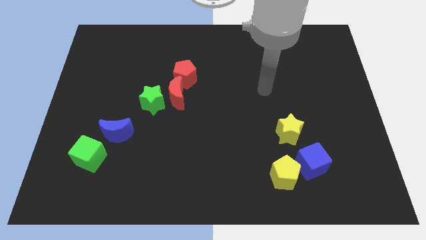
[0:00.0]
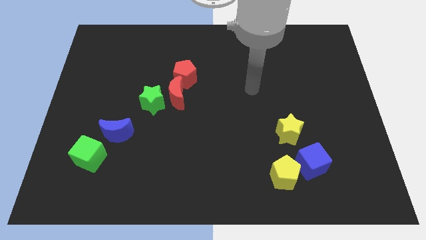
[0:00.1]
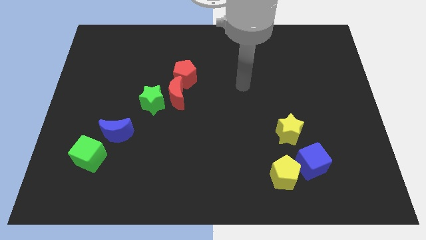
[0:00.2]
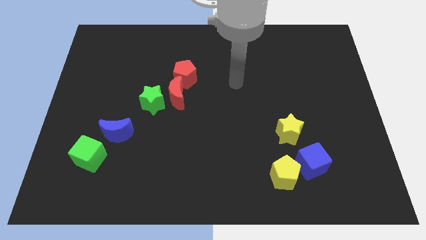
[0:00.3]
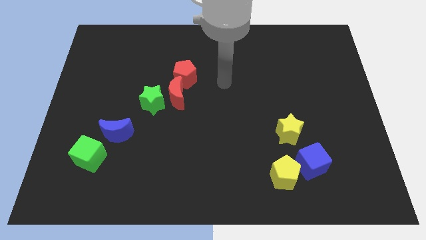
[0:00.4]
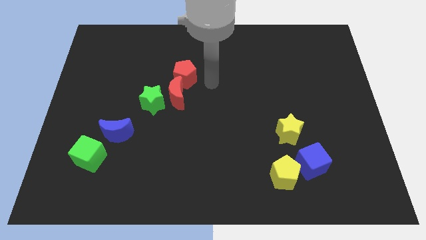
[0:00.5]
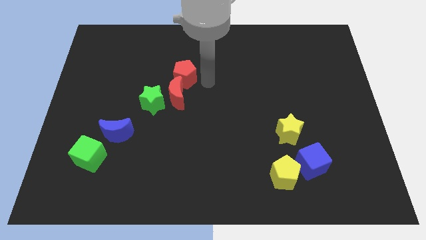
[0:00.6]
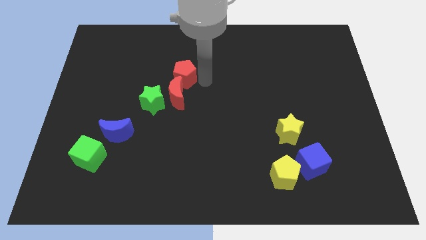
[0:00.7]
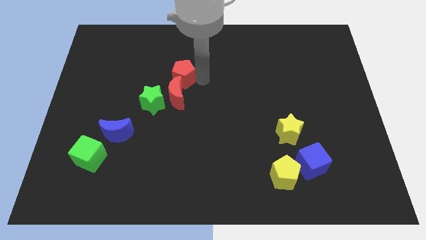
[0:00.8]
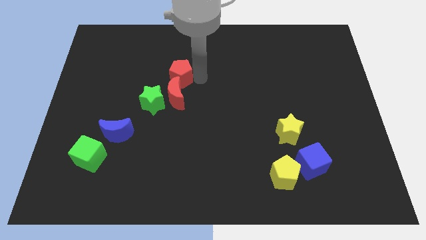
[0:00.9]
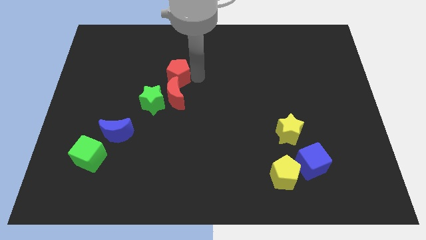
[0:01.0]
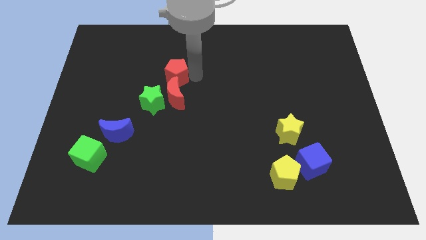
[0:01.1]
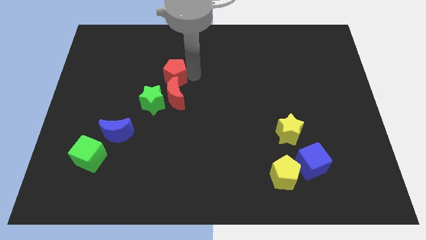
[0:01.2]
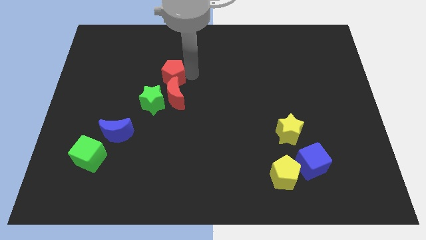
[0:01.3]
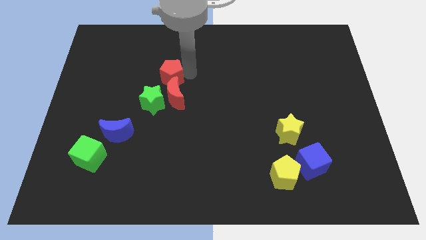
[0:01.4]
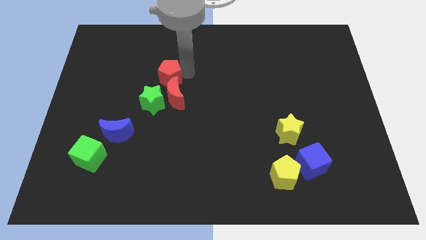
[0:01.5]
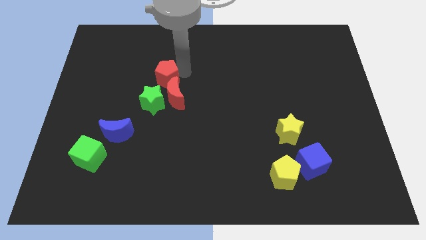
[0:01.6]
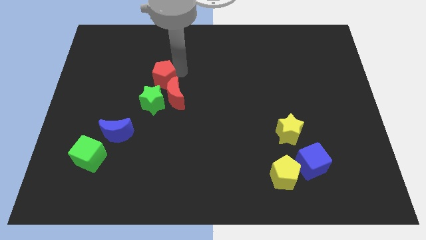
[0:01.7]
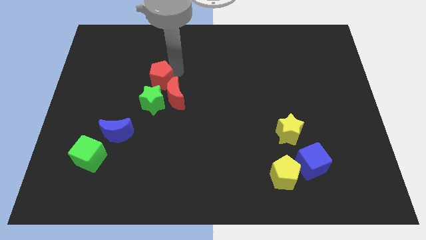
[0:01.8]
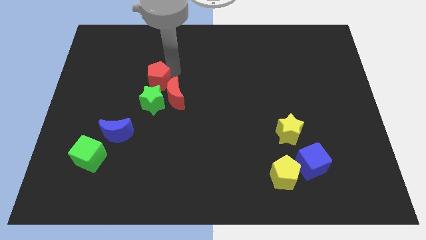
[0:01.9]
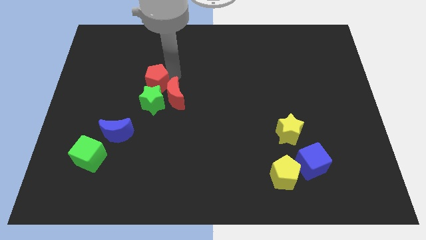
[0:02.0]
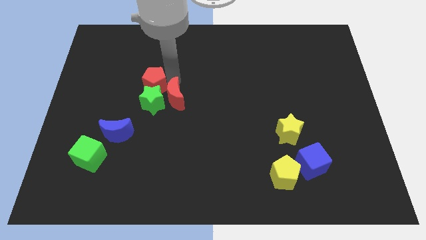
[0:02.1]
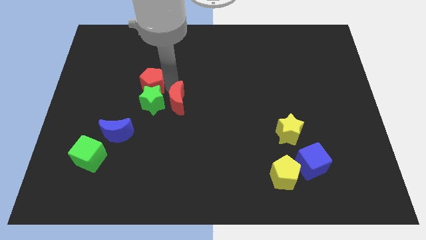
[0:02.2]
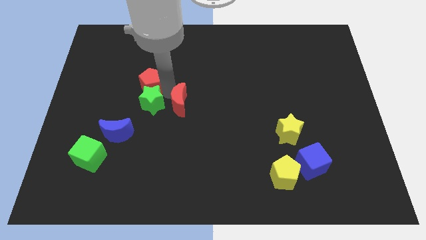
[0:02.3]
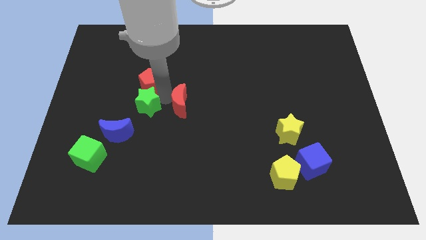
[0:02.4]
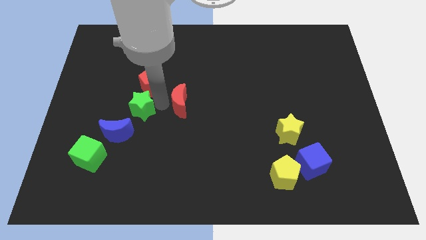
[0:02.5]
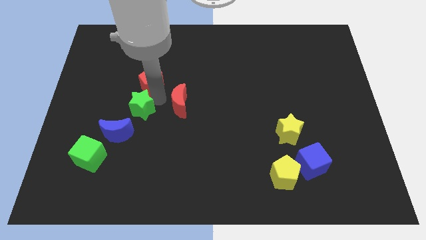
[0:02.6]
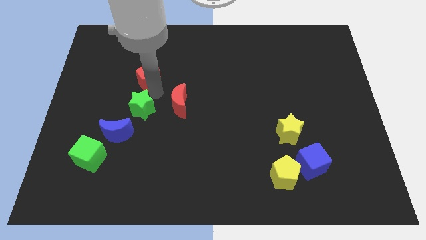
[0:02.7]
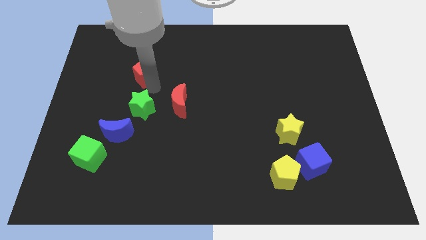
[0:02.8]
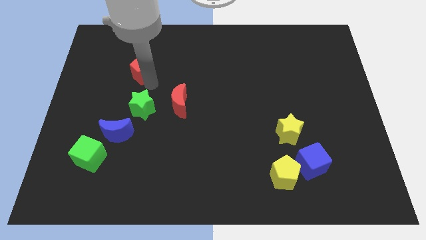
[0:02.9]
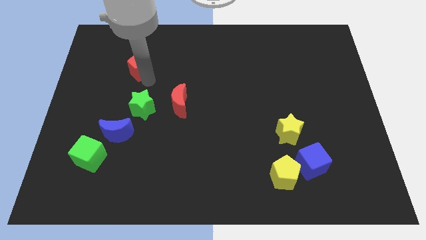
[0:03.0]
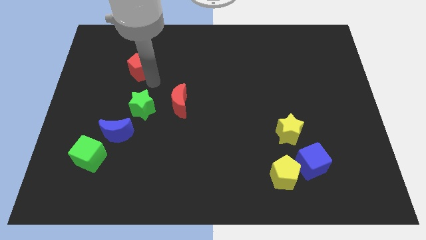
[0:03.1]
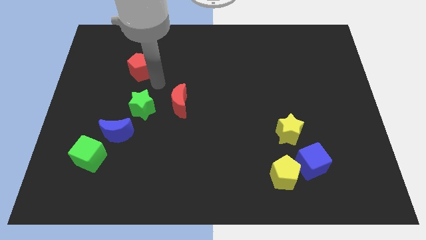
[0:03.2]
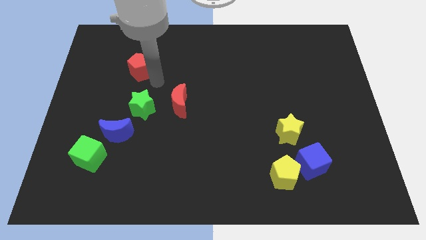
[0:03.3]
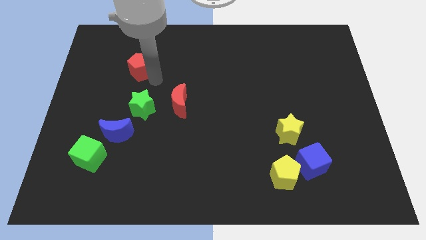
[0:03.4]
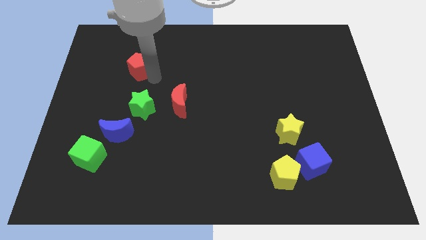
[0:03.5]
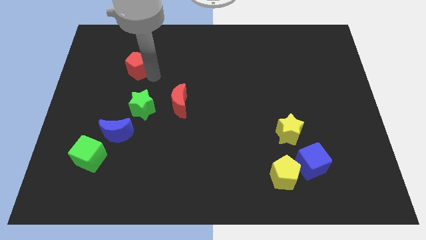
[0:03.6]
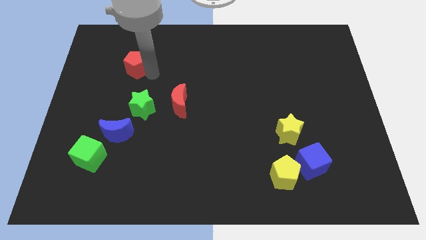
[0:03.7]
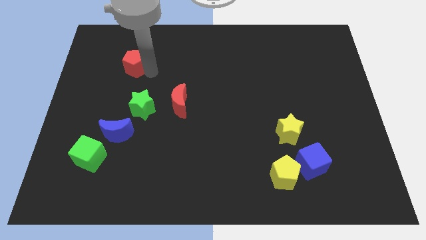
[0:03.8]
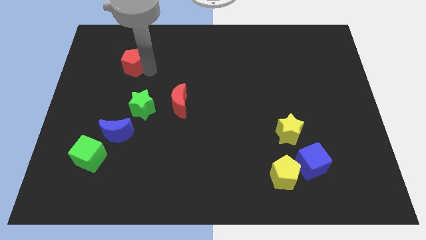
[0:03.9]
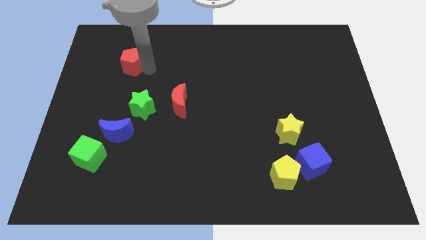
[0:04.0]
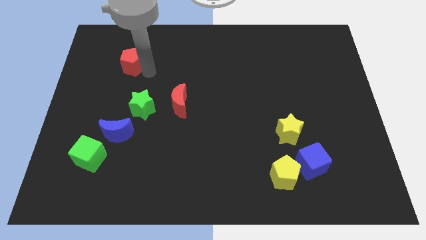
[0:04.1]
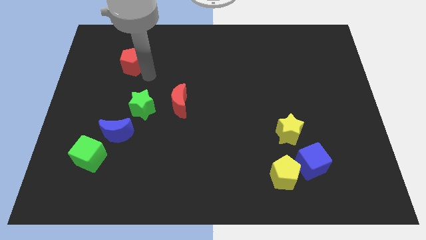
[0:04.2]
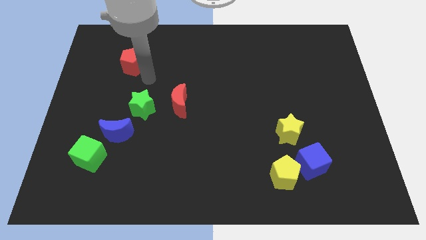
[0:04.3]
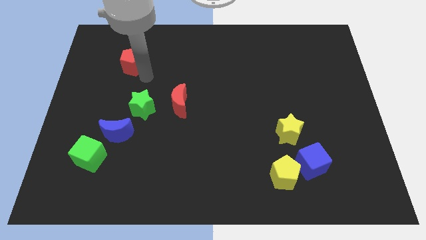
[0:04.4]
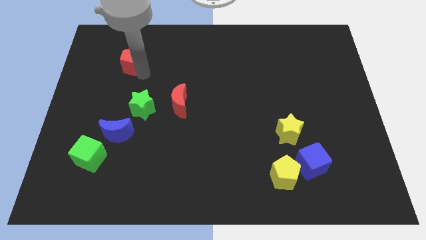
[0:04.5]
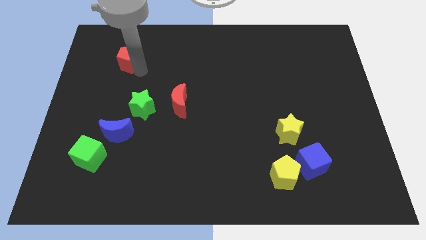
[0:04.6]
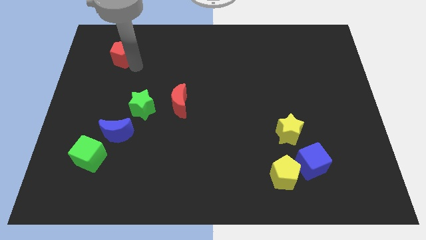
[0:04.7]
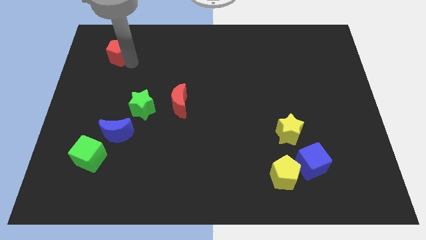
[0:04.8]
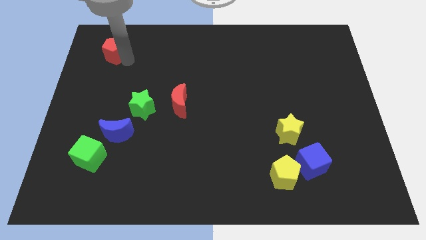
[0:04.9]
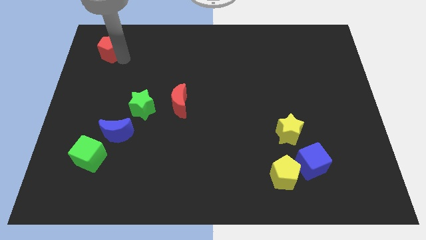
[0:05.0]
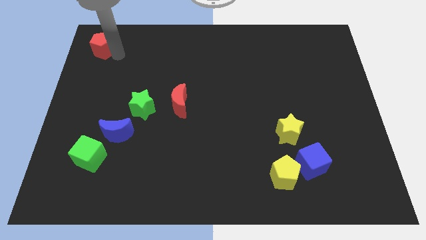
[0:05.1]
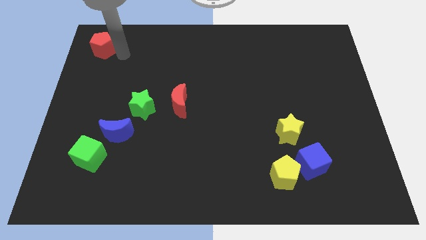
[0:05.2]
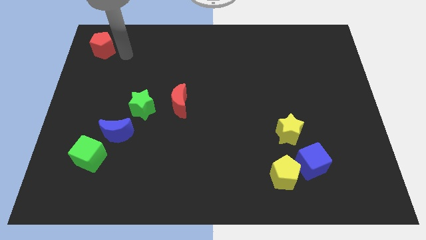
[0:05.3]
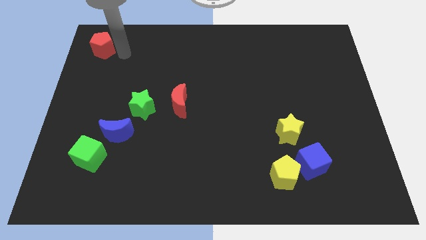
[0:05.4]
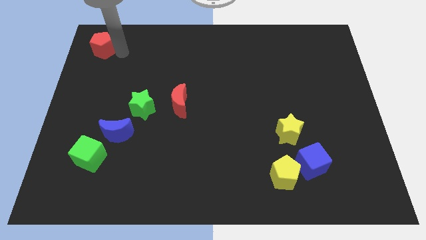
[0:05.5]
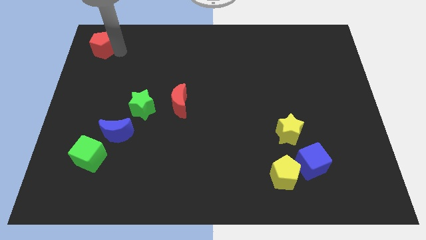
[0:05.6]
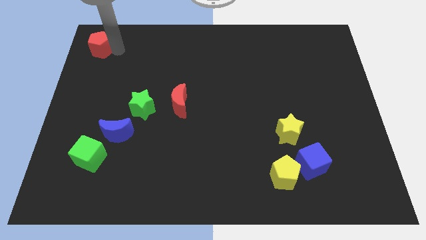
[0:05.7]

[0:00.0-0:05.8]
slide the red pentagon to the top left corner
